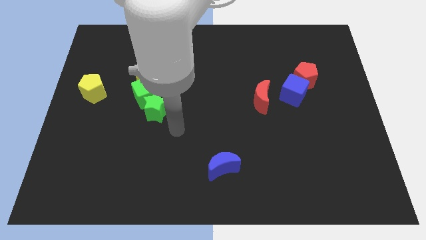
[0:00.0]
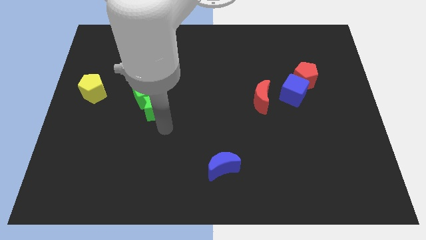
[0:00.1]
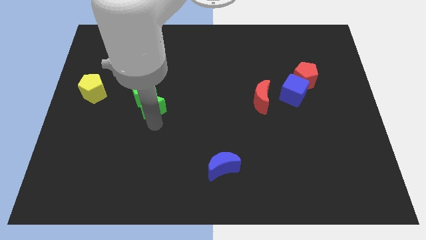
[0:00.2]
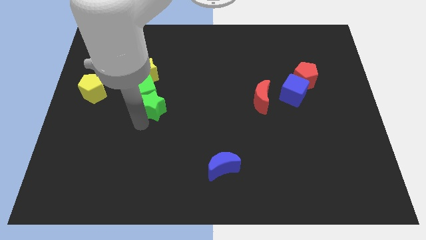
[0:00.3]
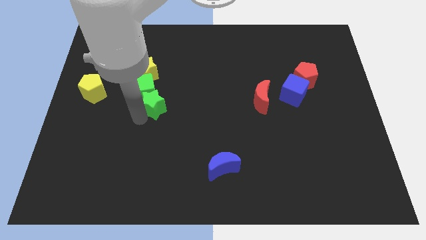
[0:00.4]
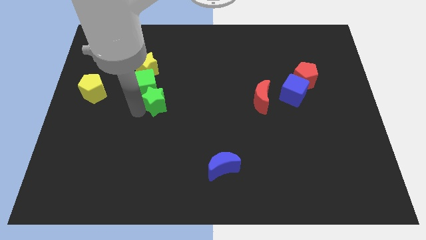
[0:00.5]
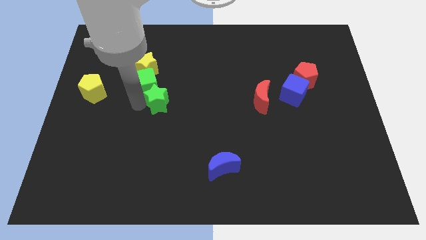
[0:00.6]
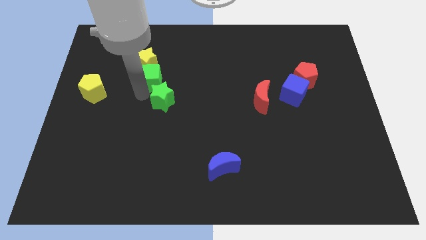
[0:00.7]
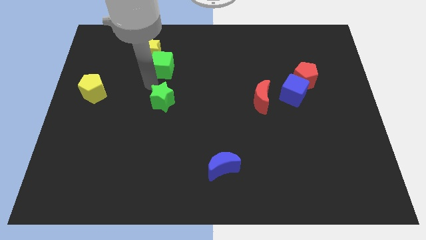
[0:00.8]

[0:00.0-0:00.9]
move the green star away from the green cube

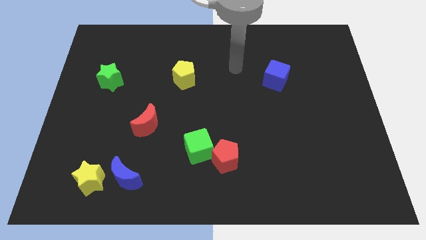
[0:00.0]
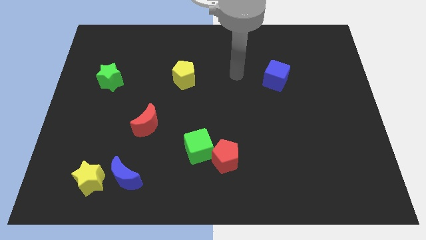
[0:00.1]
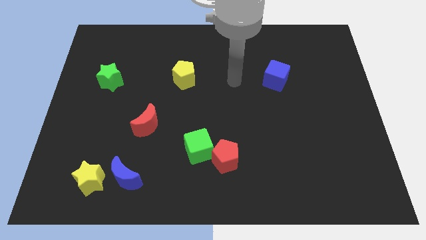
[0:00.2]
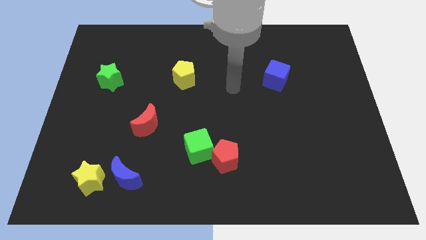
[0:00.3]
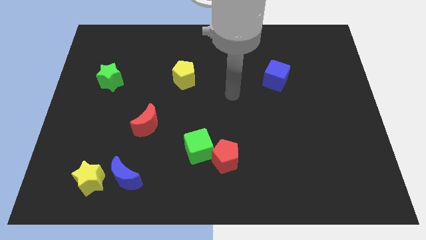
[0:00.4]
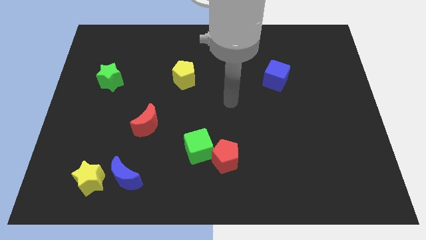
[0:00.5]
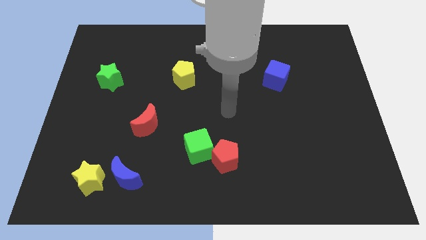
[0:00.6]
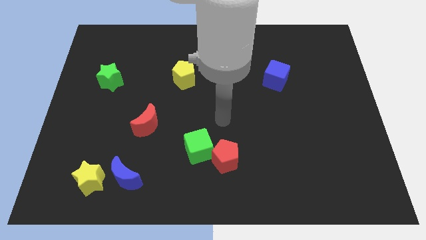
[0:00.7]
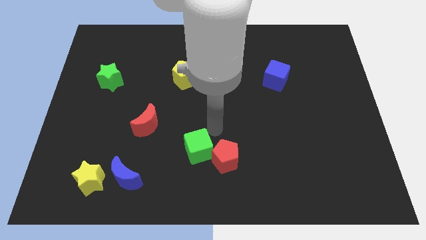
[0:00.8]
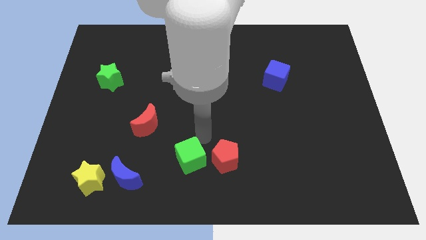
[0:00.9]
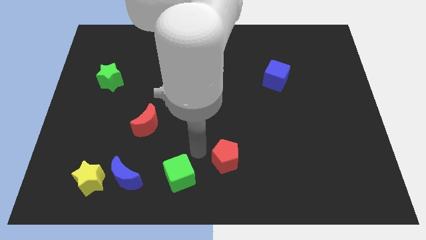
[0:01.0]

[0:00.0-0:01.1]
move the red pentagon away from the green cube

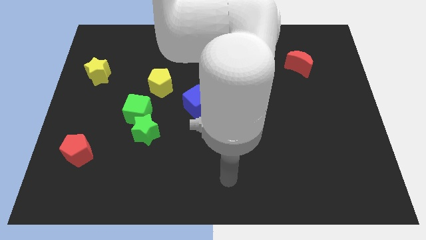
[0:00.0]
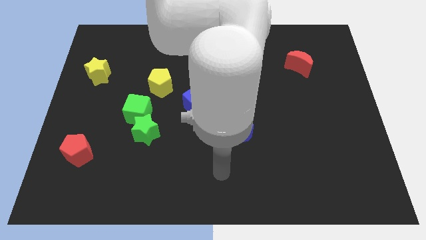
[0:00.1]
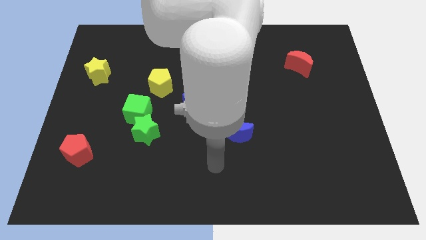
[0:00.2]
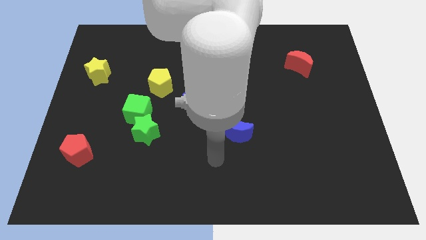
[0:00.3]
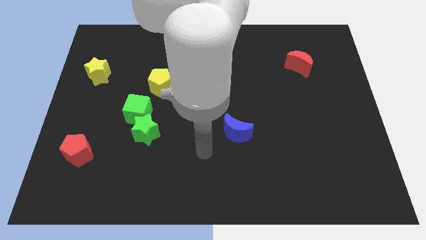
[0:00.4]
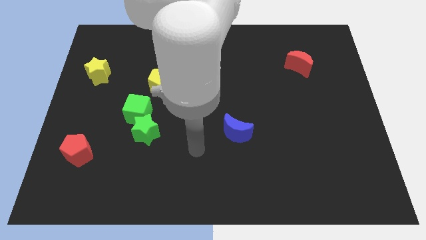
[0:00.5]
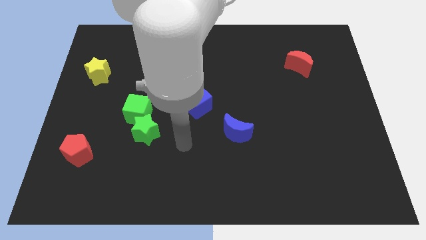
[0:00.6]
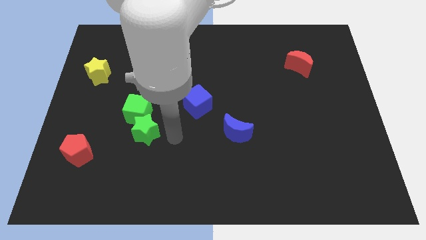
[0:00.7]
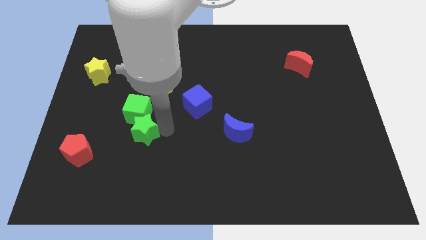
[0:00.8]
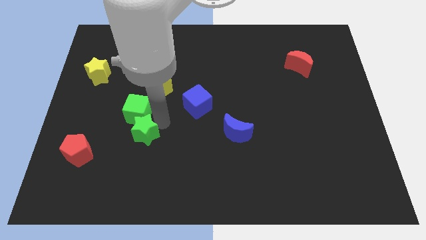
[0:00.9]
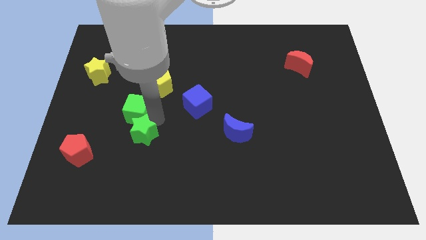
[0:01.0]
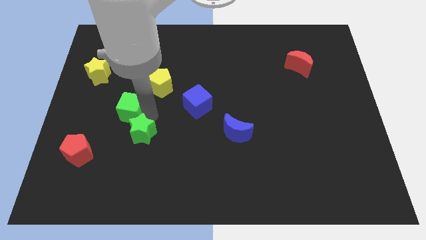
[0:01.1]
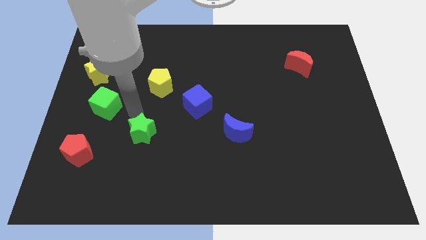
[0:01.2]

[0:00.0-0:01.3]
pull the green star apart from the green cube

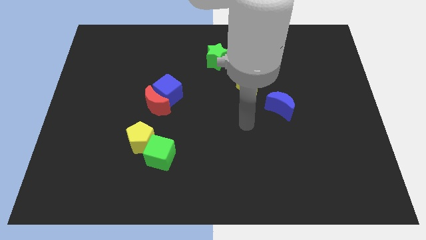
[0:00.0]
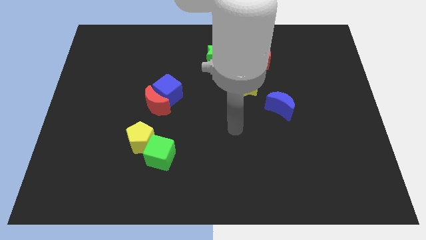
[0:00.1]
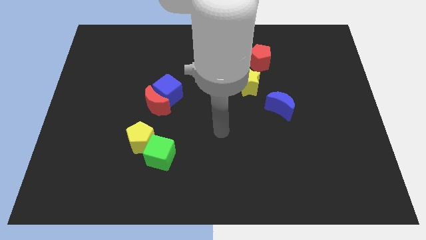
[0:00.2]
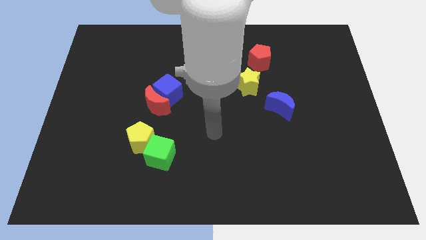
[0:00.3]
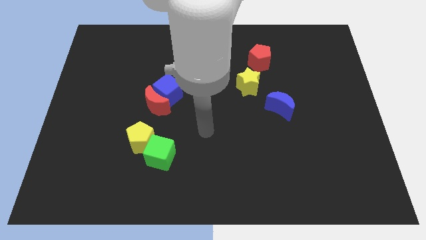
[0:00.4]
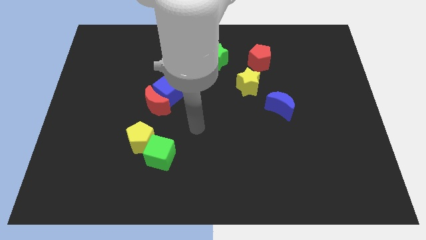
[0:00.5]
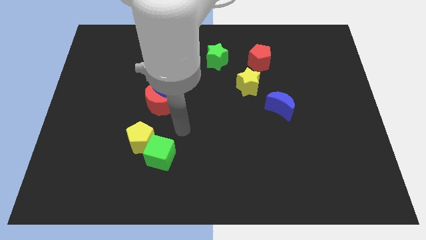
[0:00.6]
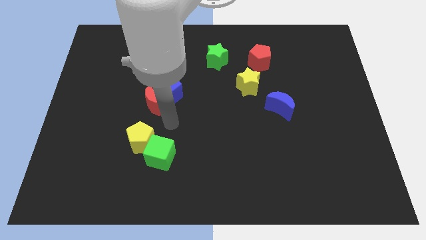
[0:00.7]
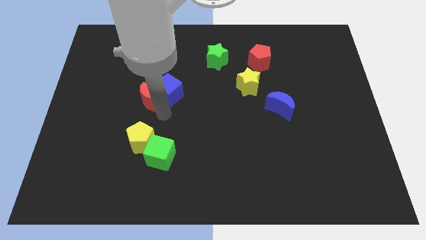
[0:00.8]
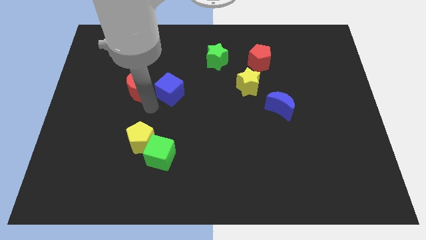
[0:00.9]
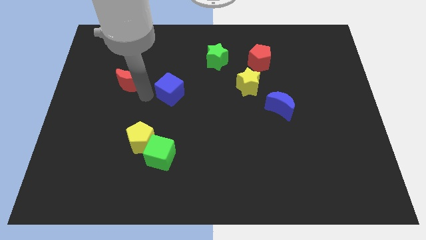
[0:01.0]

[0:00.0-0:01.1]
move the blue cube away from the red moon

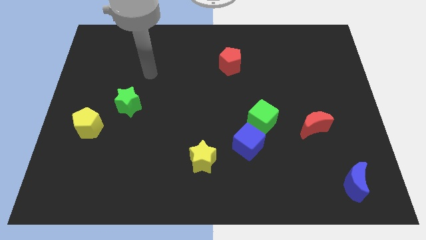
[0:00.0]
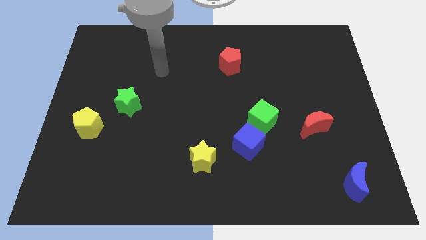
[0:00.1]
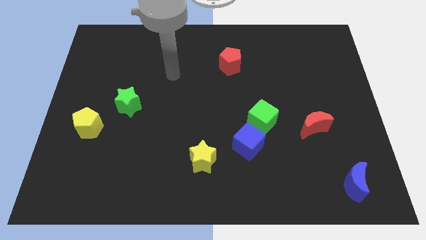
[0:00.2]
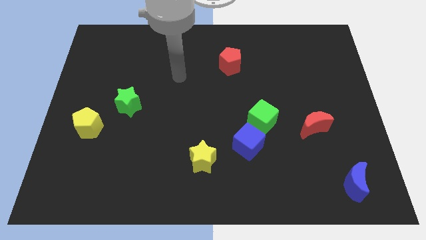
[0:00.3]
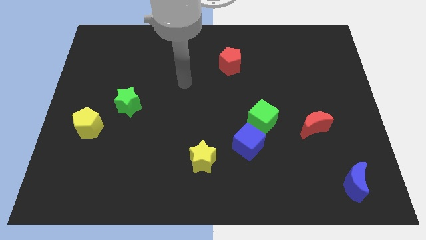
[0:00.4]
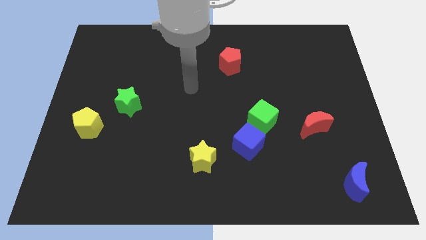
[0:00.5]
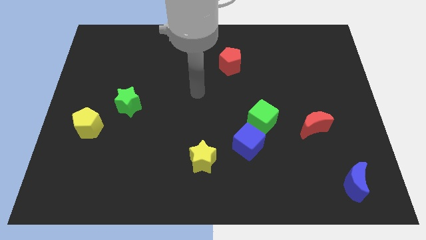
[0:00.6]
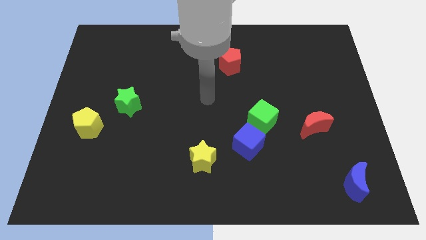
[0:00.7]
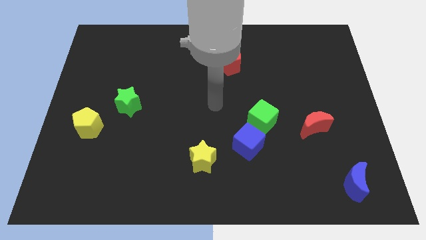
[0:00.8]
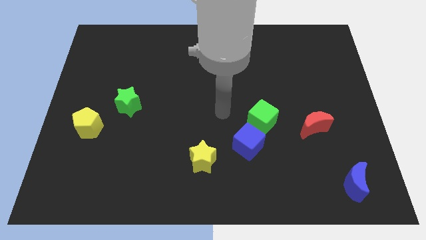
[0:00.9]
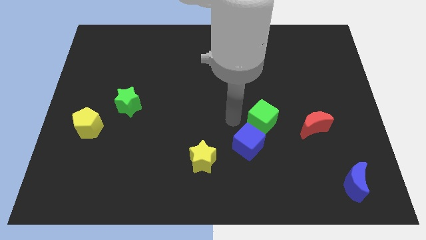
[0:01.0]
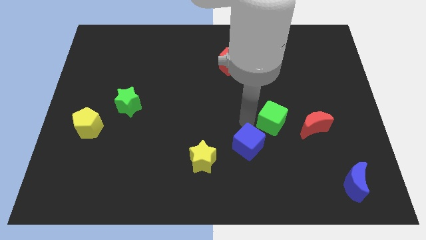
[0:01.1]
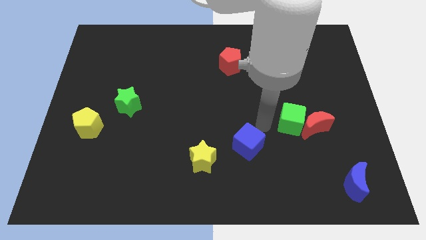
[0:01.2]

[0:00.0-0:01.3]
move the blue cube away from the green cube

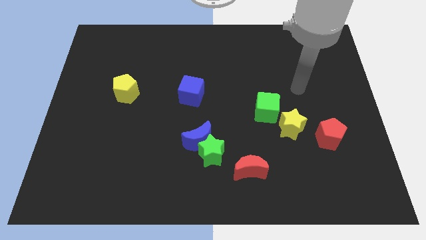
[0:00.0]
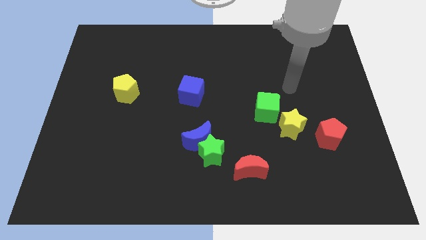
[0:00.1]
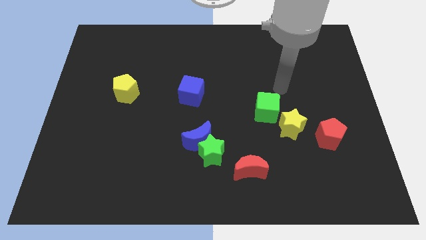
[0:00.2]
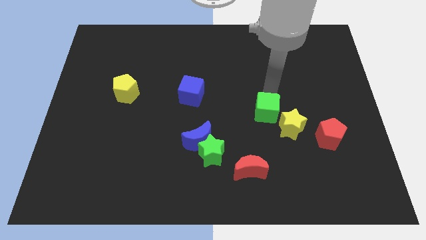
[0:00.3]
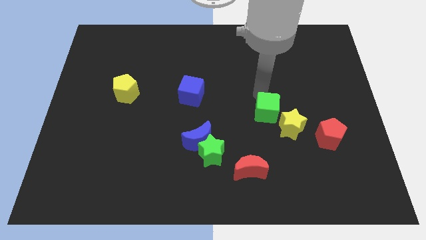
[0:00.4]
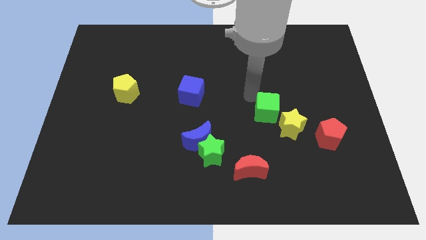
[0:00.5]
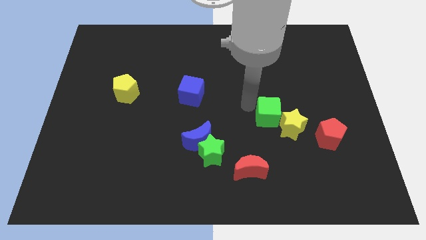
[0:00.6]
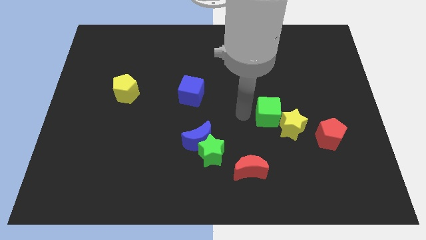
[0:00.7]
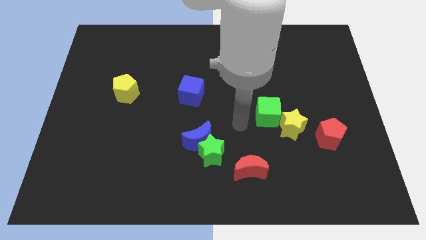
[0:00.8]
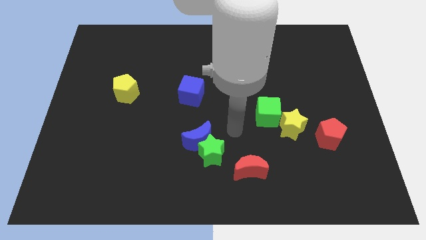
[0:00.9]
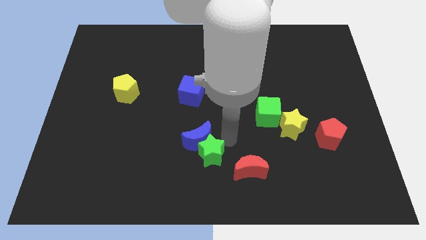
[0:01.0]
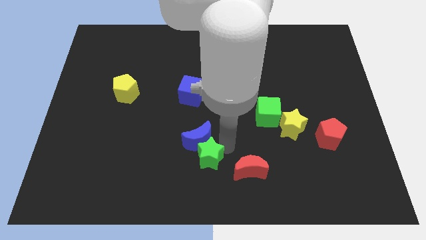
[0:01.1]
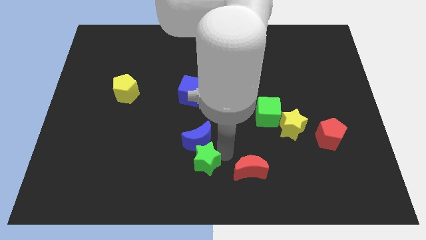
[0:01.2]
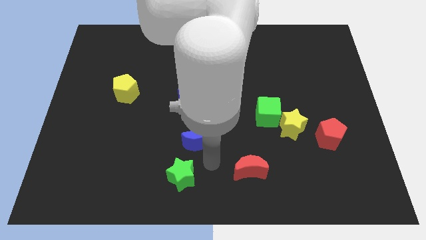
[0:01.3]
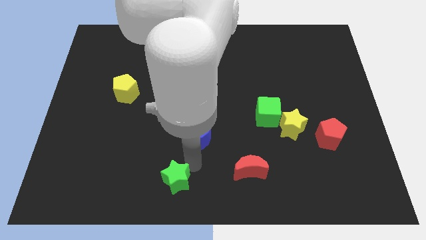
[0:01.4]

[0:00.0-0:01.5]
pull the blue moon apart from the green star

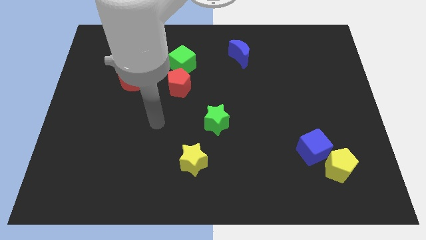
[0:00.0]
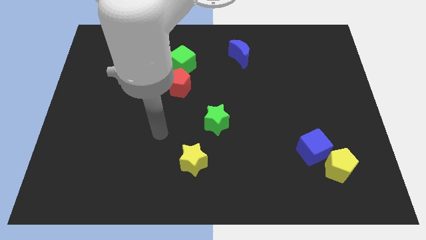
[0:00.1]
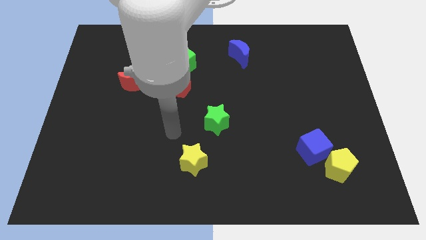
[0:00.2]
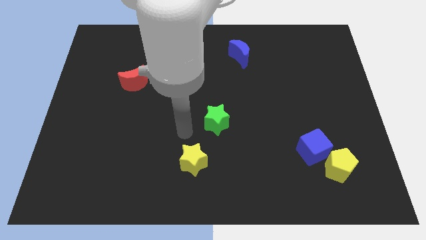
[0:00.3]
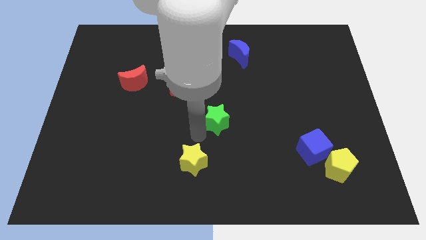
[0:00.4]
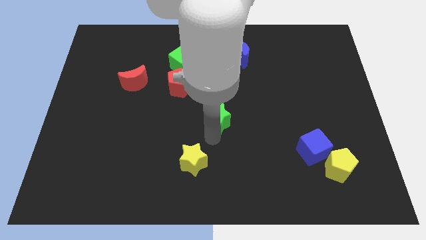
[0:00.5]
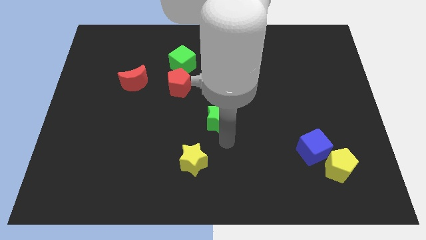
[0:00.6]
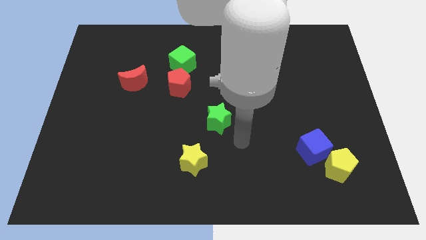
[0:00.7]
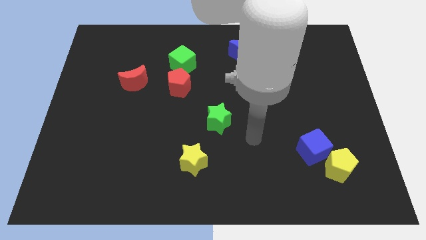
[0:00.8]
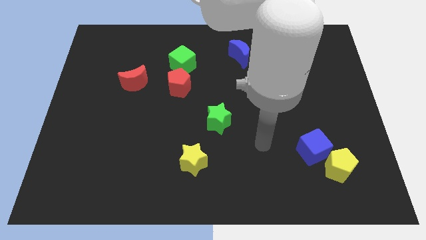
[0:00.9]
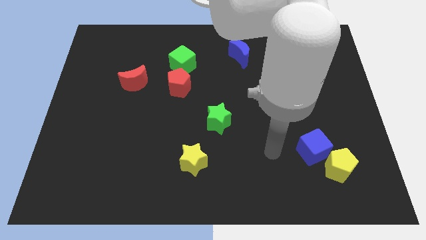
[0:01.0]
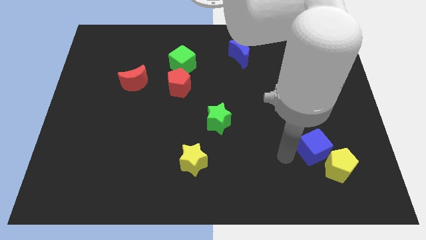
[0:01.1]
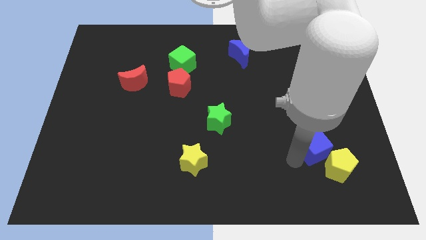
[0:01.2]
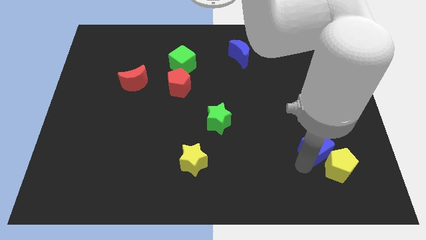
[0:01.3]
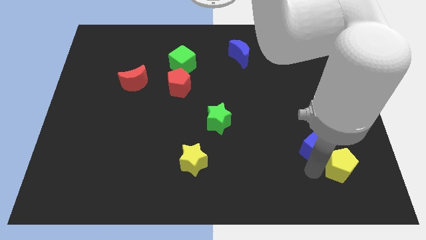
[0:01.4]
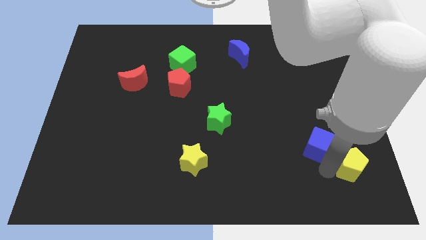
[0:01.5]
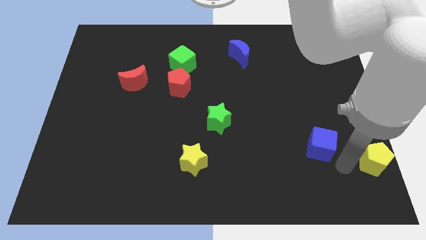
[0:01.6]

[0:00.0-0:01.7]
move the blue cube away from the yellow pentagon

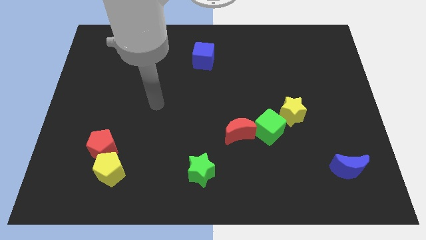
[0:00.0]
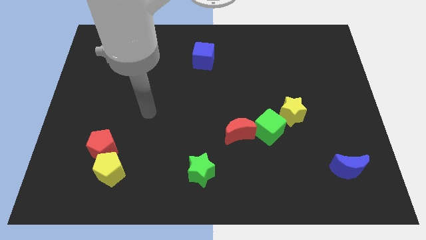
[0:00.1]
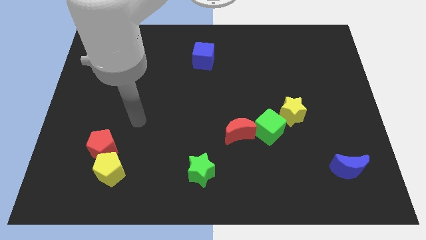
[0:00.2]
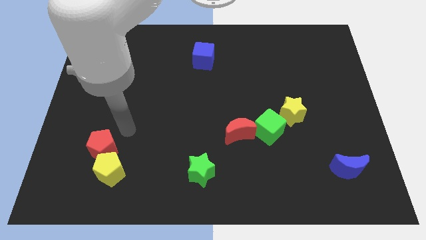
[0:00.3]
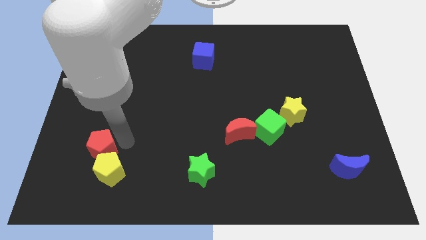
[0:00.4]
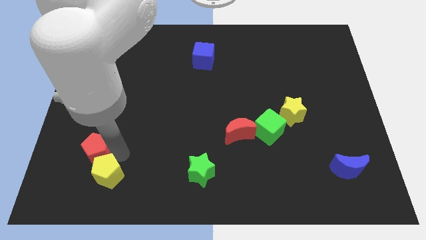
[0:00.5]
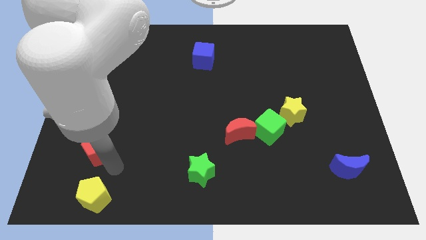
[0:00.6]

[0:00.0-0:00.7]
pull the red pentagon apart from the yellow pentagon
